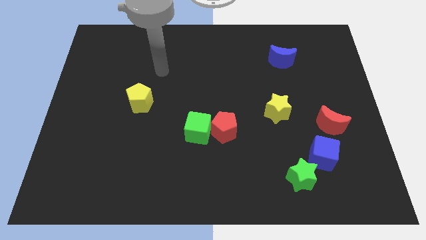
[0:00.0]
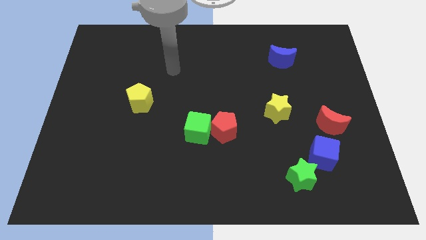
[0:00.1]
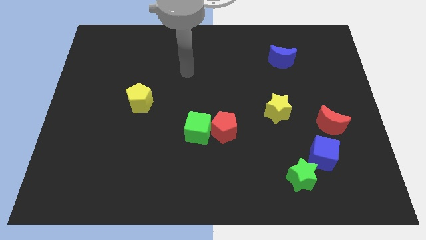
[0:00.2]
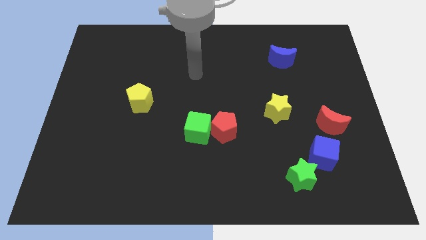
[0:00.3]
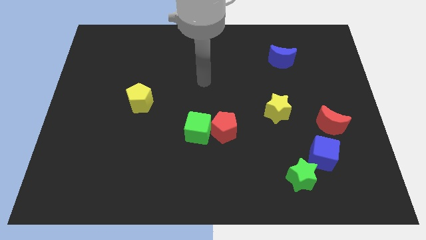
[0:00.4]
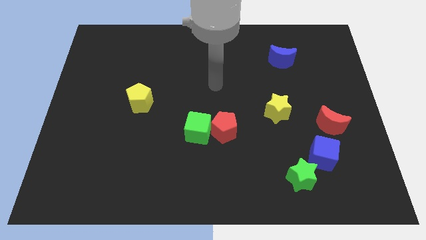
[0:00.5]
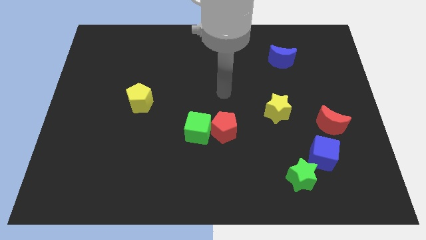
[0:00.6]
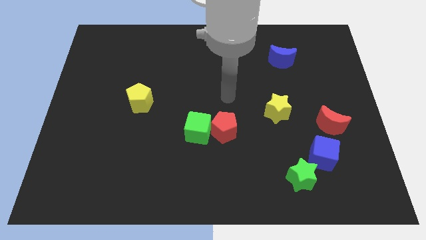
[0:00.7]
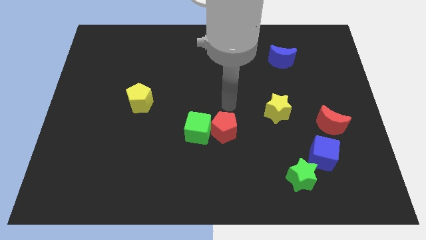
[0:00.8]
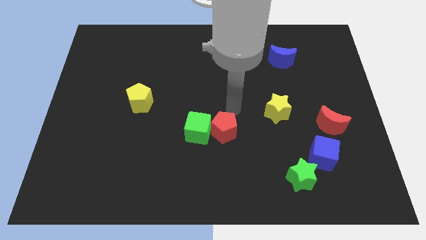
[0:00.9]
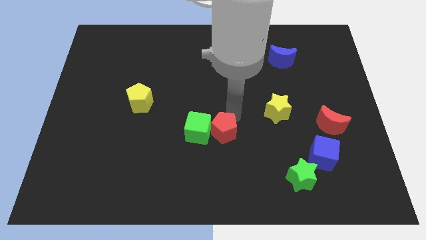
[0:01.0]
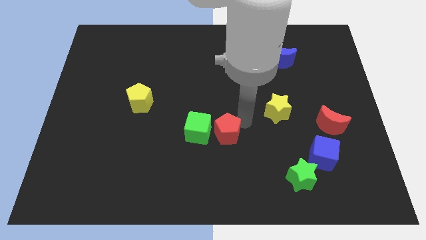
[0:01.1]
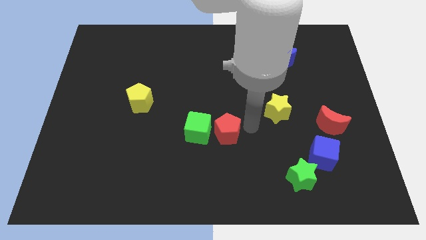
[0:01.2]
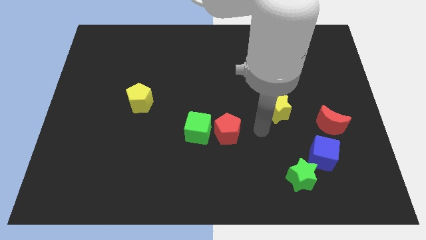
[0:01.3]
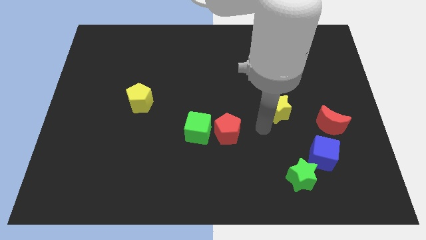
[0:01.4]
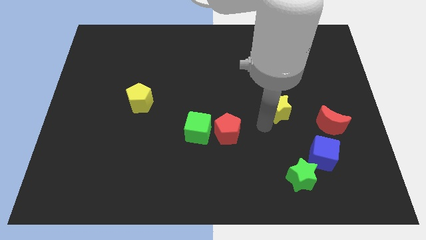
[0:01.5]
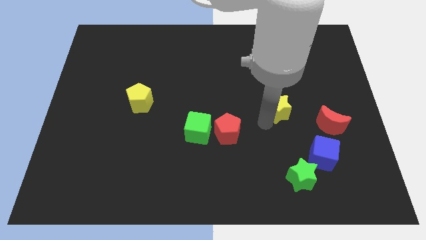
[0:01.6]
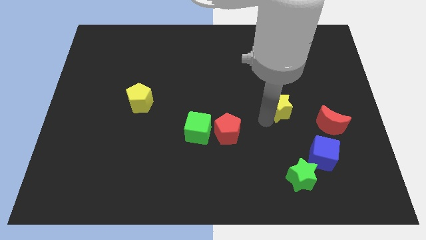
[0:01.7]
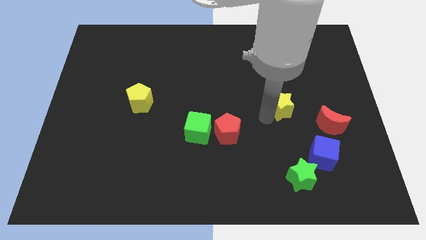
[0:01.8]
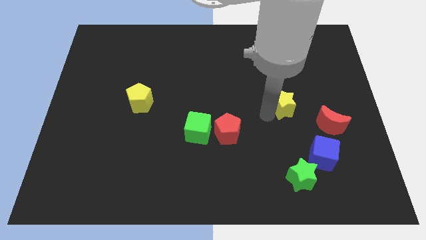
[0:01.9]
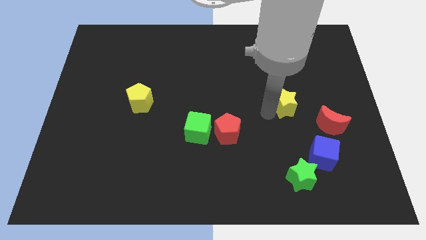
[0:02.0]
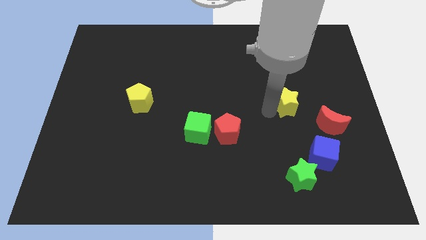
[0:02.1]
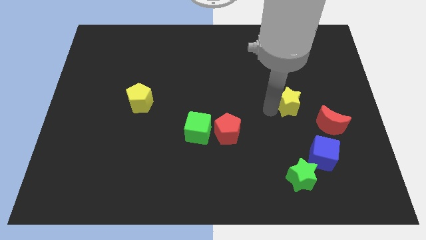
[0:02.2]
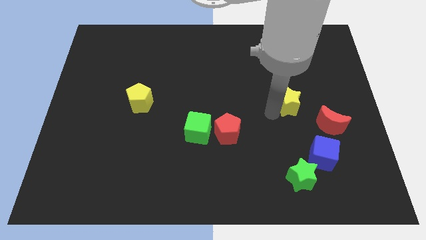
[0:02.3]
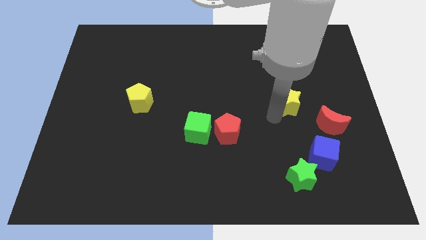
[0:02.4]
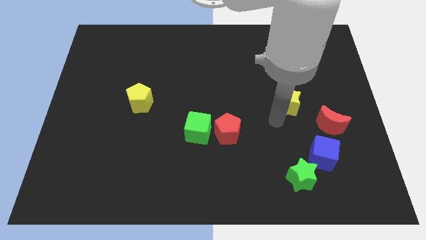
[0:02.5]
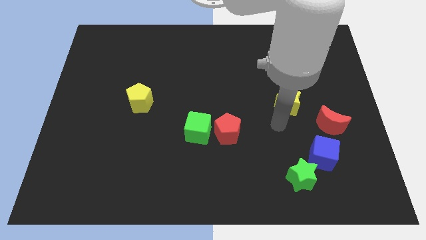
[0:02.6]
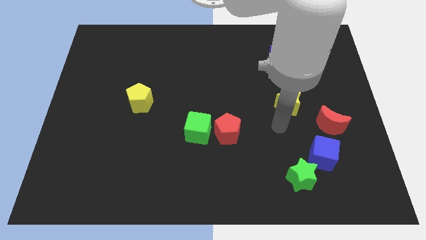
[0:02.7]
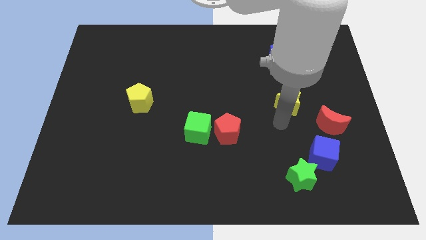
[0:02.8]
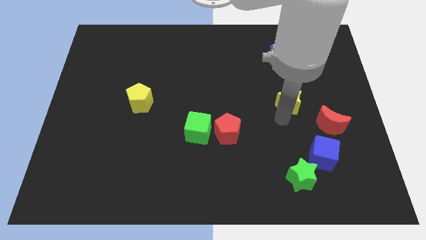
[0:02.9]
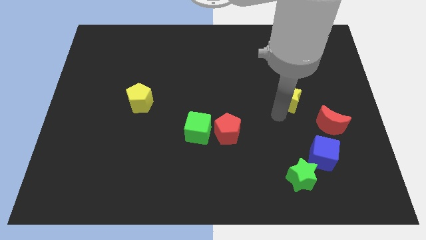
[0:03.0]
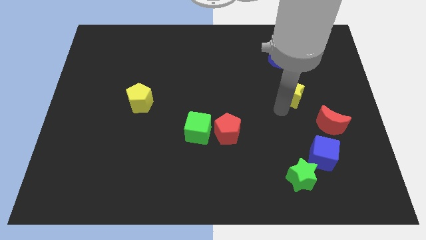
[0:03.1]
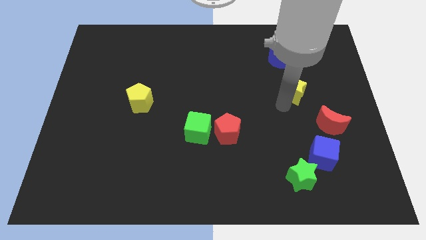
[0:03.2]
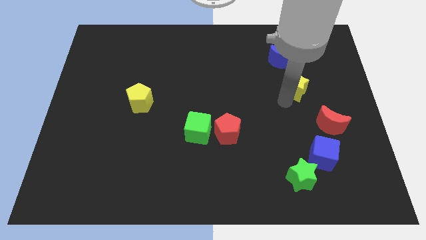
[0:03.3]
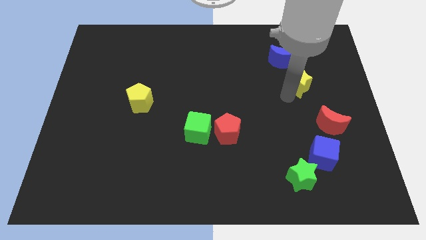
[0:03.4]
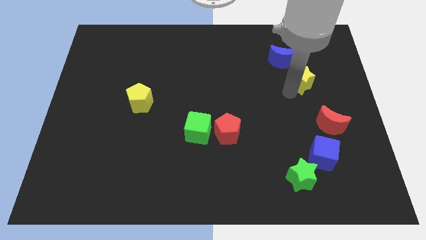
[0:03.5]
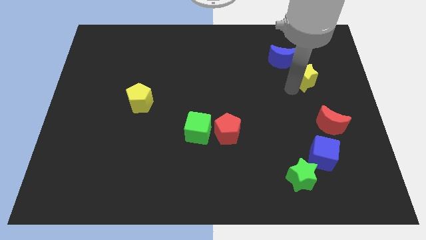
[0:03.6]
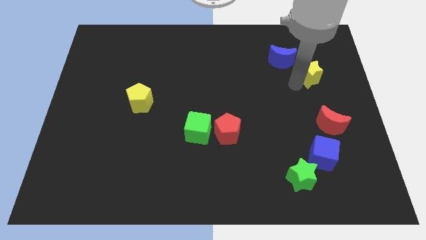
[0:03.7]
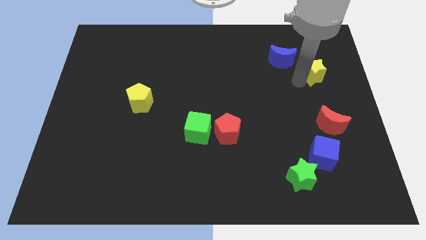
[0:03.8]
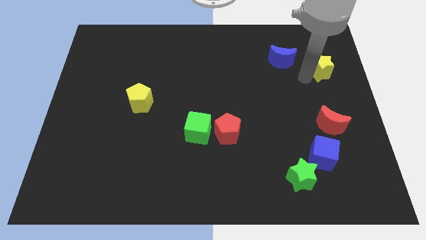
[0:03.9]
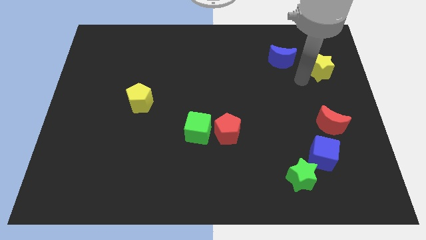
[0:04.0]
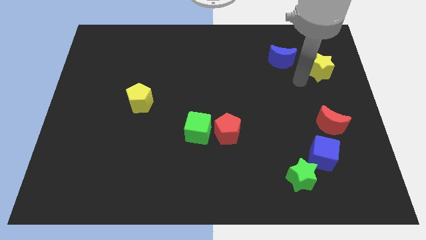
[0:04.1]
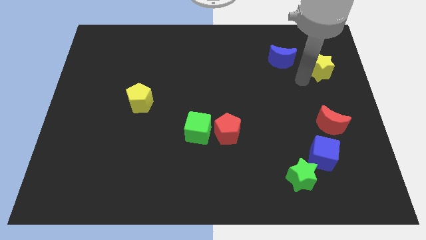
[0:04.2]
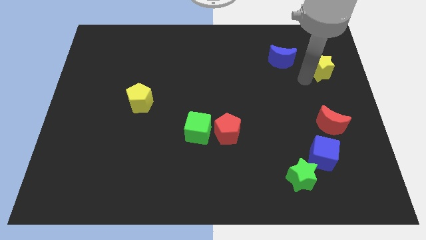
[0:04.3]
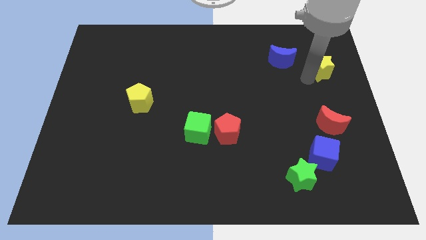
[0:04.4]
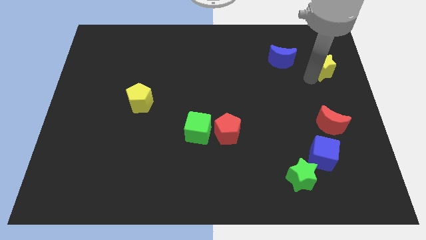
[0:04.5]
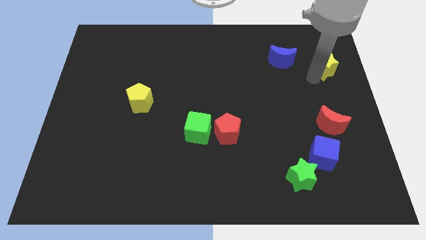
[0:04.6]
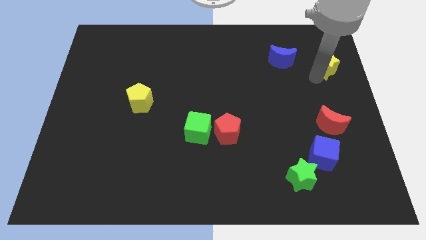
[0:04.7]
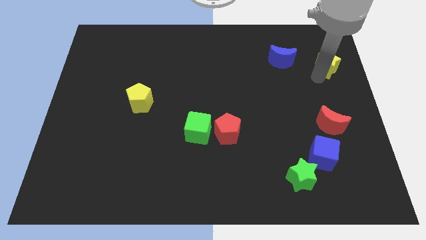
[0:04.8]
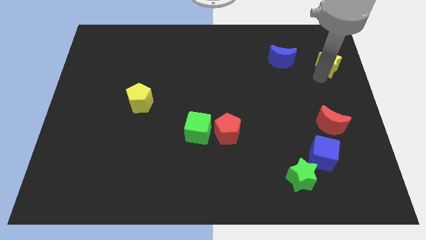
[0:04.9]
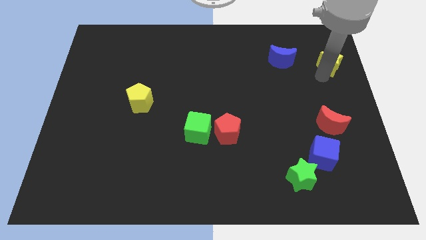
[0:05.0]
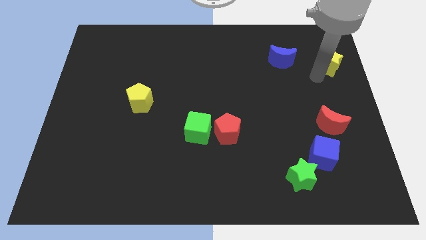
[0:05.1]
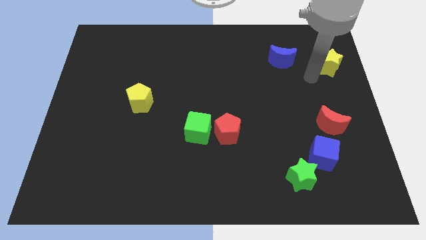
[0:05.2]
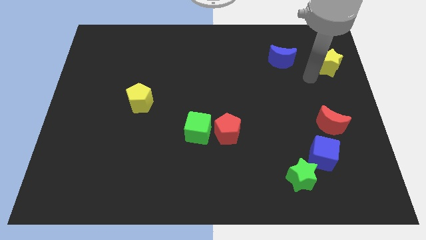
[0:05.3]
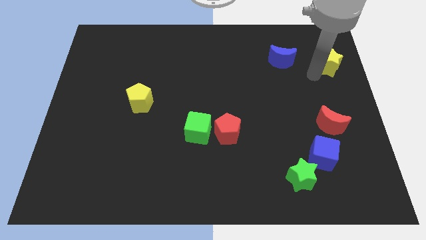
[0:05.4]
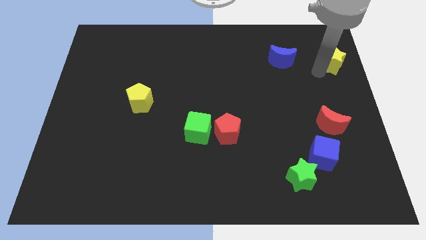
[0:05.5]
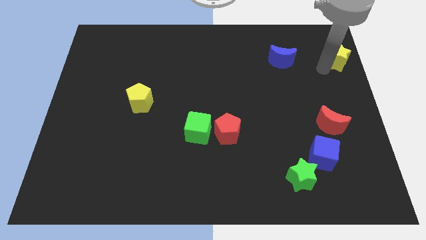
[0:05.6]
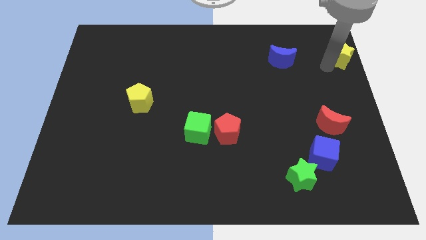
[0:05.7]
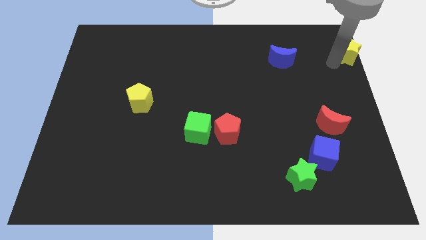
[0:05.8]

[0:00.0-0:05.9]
move the yellow star to the top right corner
